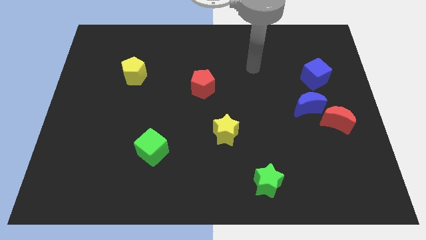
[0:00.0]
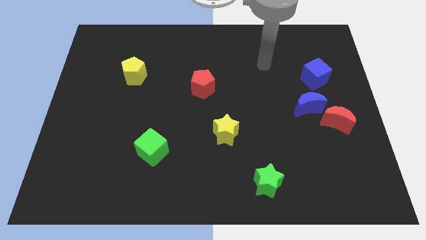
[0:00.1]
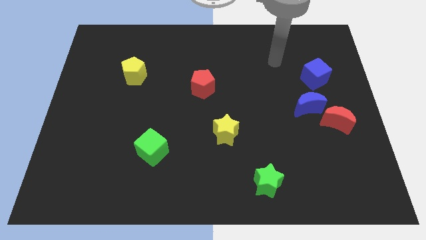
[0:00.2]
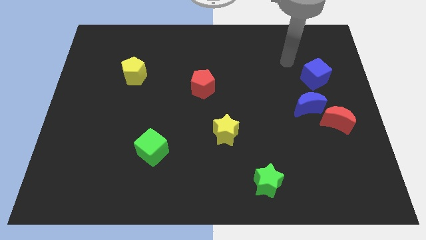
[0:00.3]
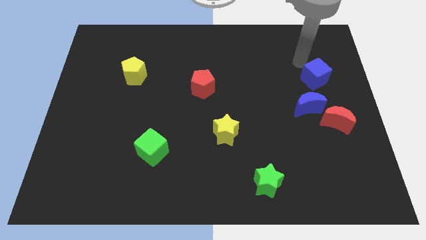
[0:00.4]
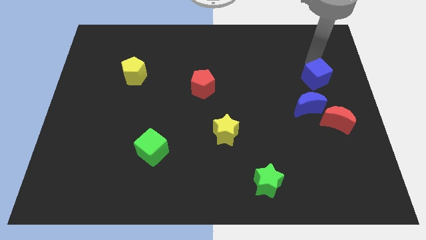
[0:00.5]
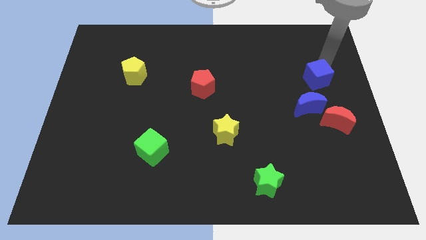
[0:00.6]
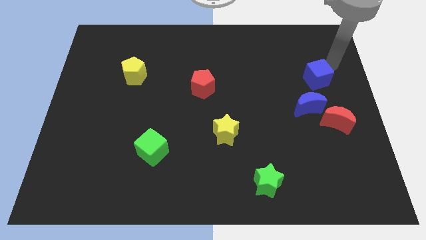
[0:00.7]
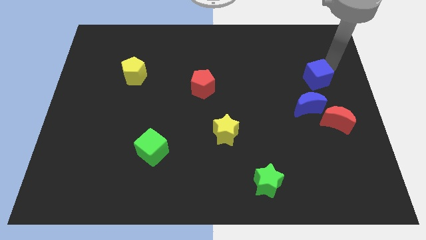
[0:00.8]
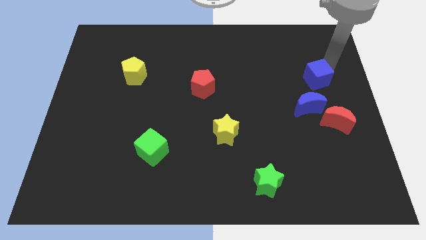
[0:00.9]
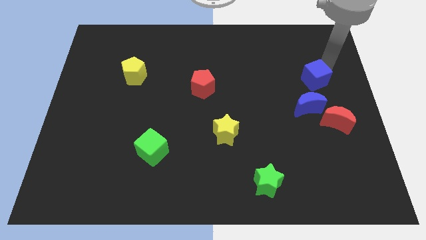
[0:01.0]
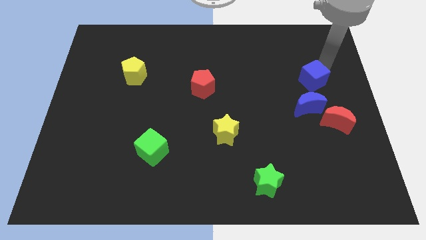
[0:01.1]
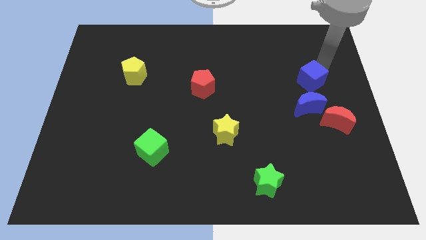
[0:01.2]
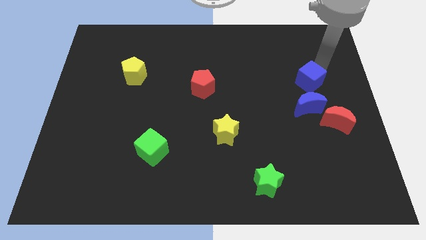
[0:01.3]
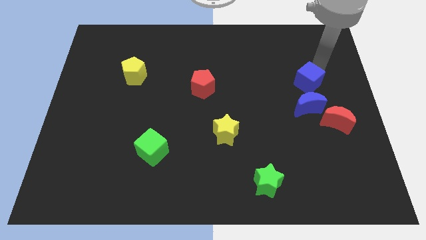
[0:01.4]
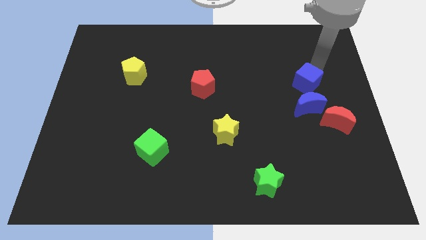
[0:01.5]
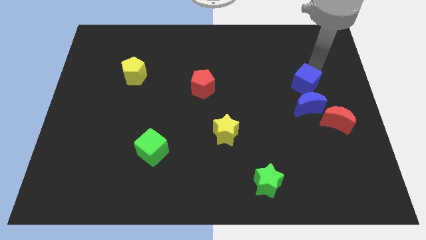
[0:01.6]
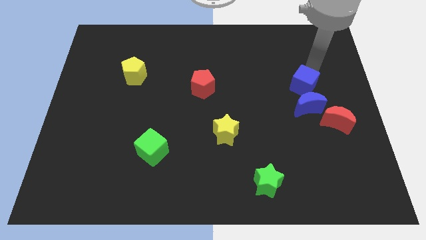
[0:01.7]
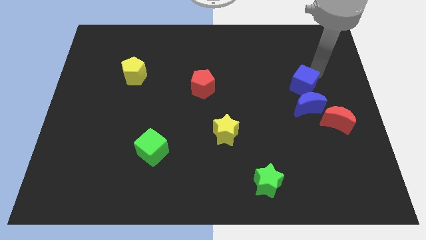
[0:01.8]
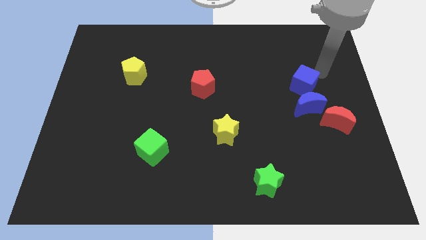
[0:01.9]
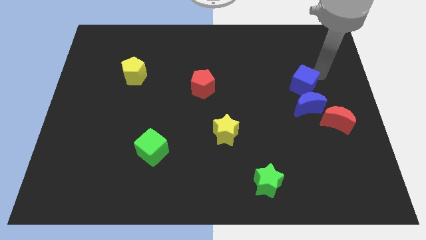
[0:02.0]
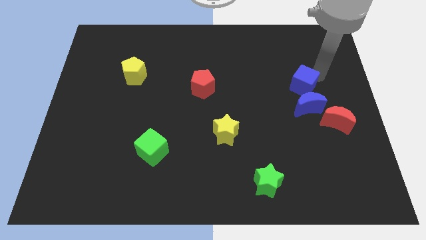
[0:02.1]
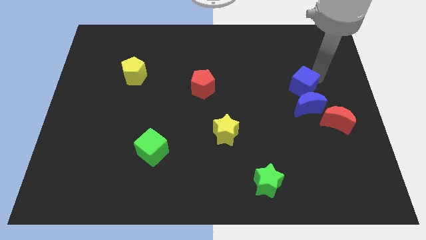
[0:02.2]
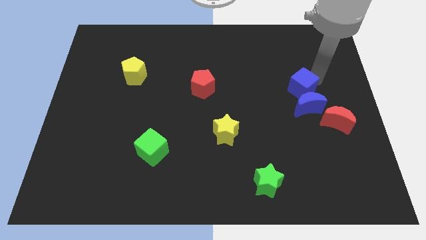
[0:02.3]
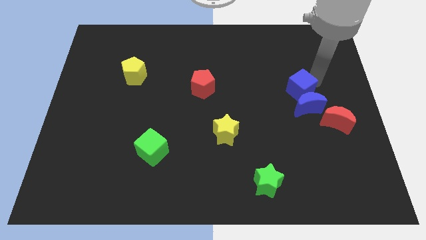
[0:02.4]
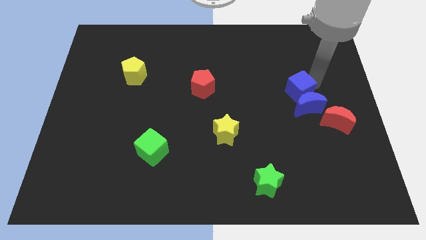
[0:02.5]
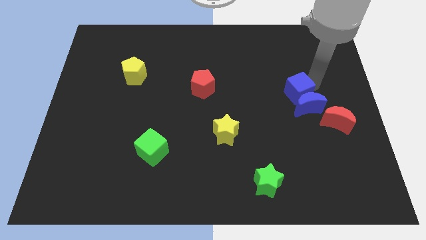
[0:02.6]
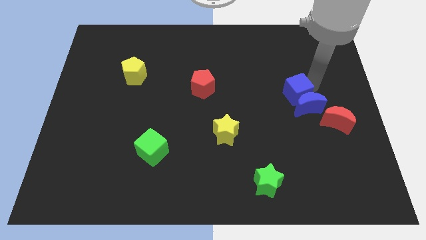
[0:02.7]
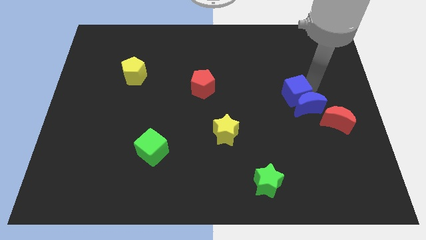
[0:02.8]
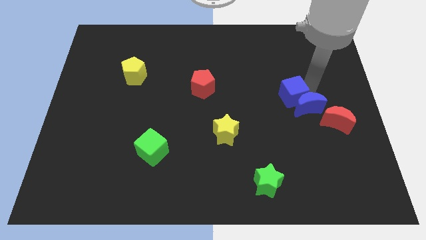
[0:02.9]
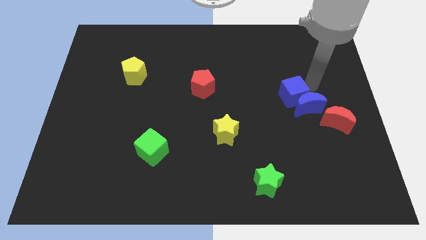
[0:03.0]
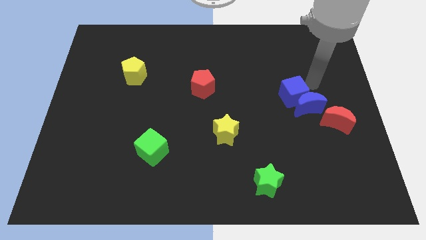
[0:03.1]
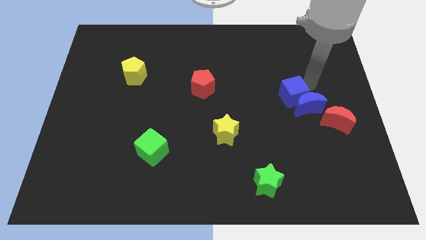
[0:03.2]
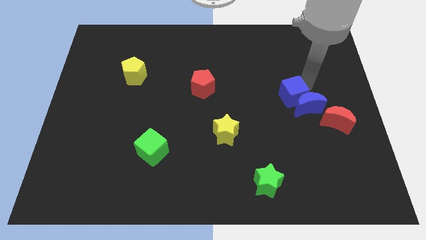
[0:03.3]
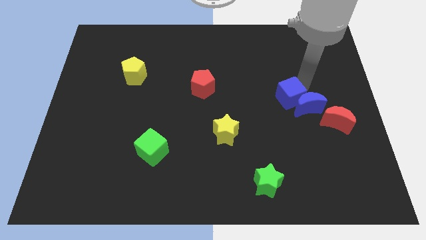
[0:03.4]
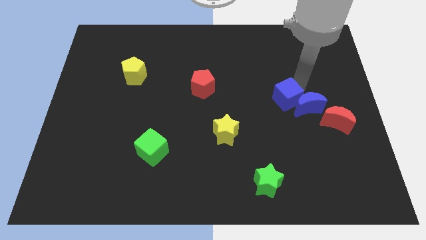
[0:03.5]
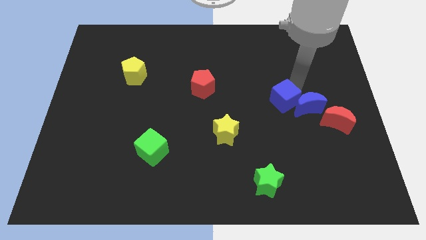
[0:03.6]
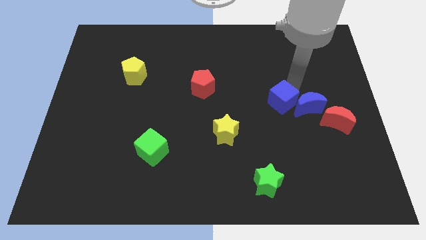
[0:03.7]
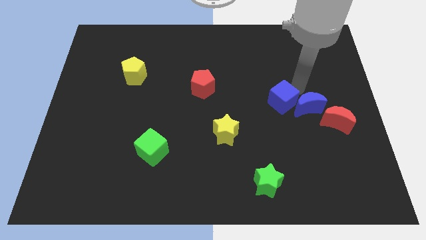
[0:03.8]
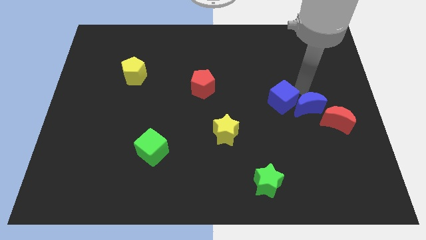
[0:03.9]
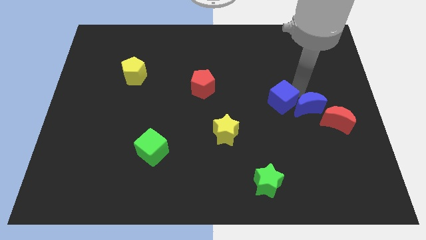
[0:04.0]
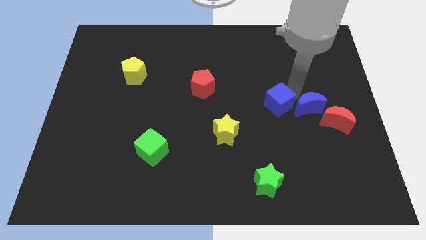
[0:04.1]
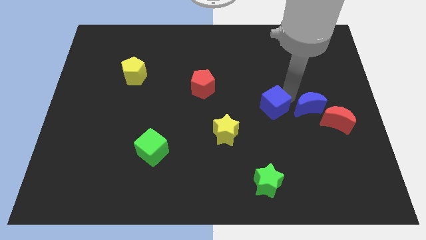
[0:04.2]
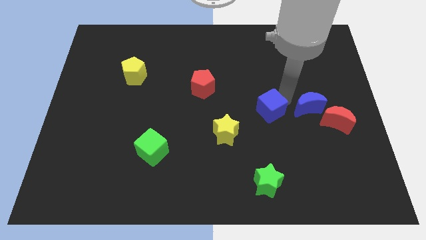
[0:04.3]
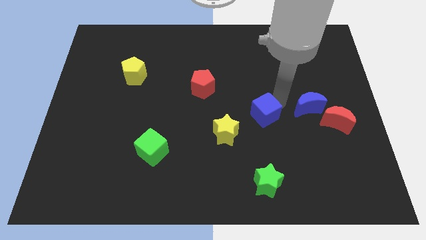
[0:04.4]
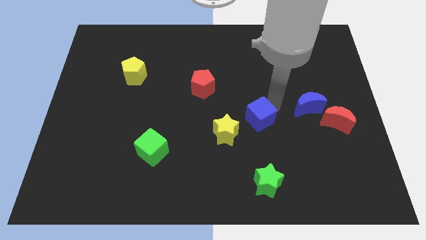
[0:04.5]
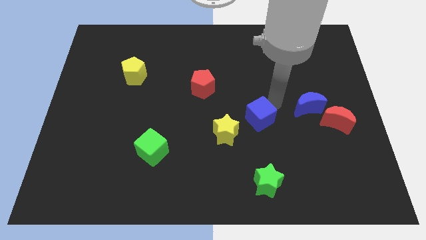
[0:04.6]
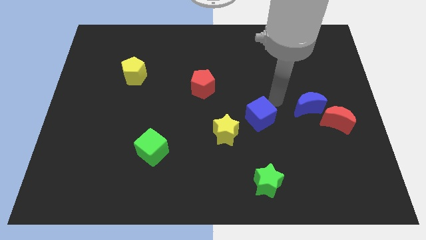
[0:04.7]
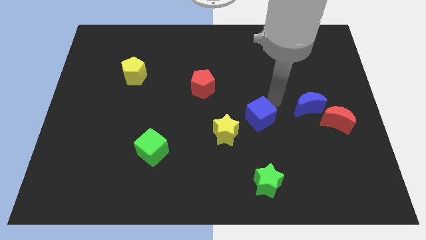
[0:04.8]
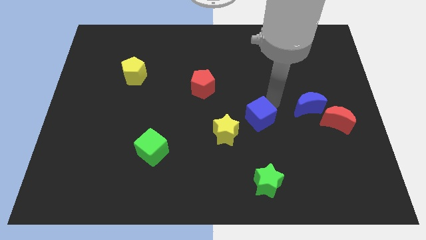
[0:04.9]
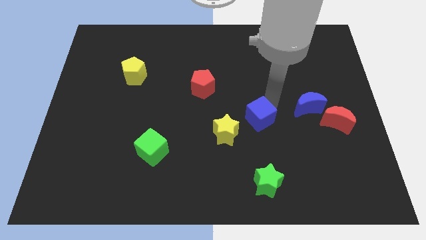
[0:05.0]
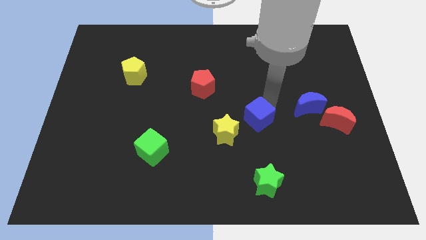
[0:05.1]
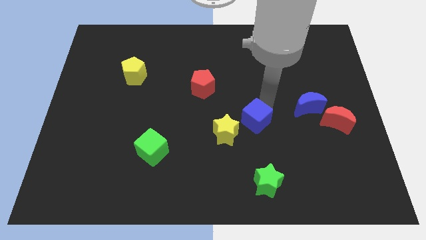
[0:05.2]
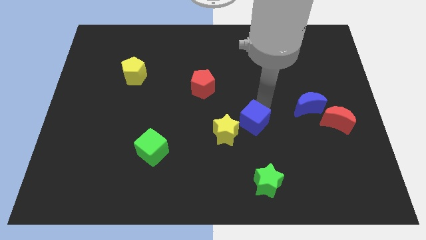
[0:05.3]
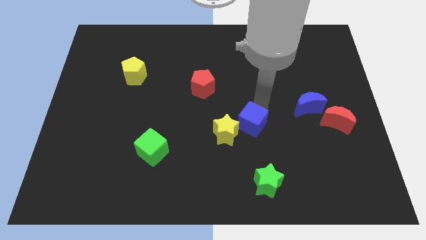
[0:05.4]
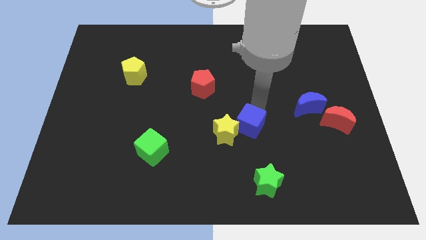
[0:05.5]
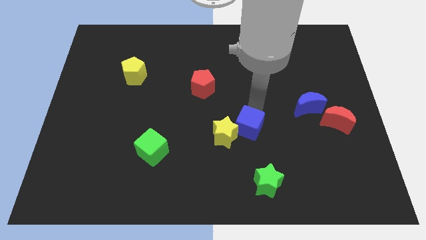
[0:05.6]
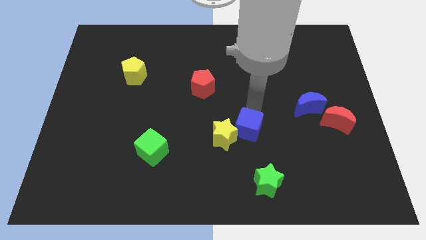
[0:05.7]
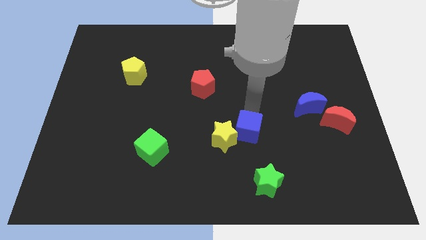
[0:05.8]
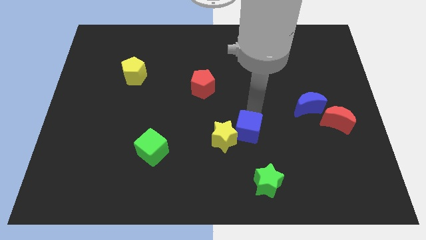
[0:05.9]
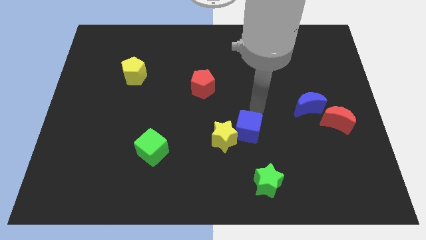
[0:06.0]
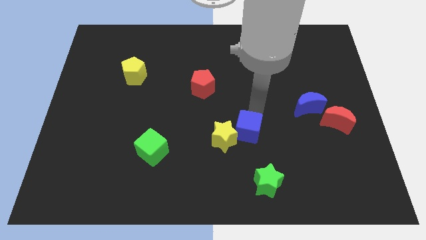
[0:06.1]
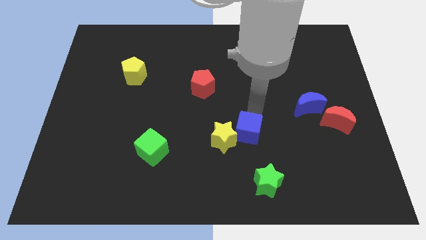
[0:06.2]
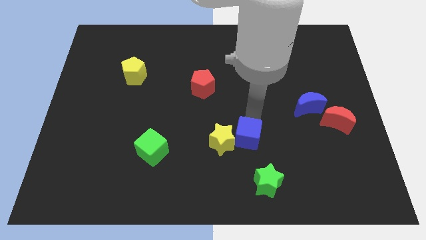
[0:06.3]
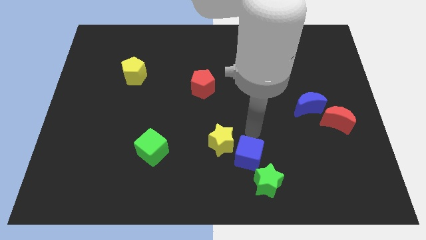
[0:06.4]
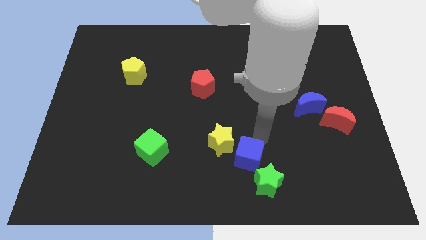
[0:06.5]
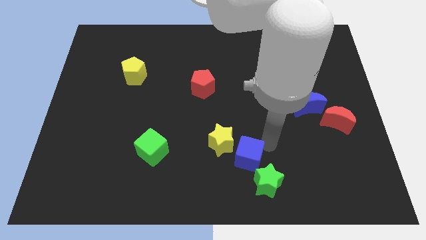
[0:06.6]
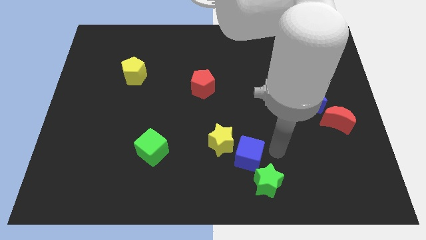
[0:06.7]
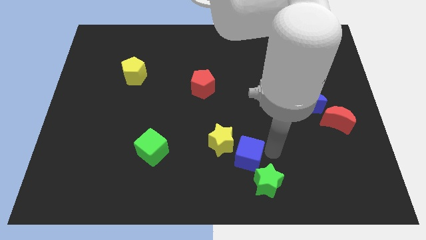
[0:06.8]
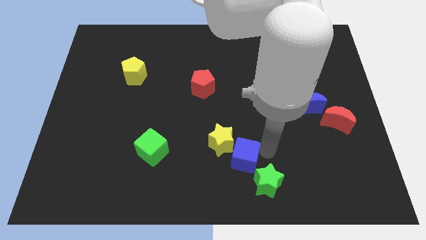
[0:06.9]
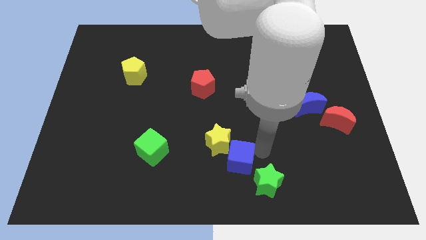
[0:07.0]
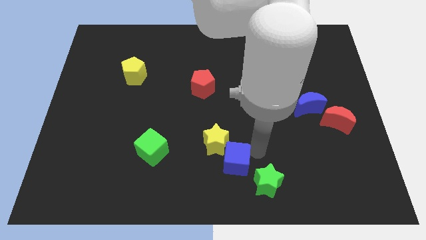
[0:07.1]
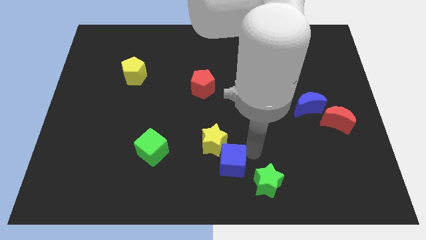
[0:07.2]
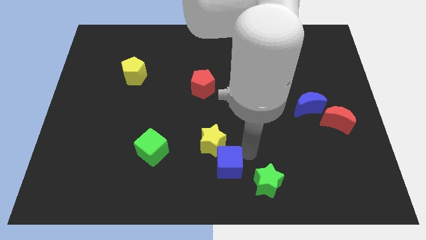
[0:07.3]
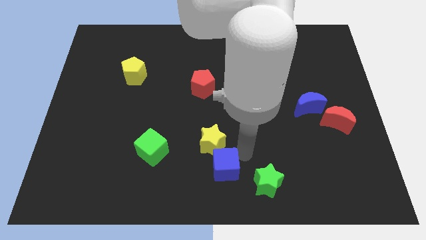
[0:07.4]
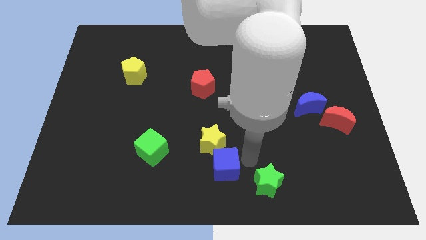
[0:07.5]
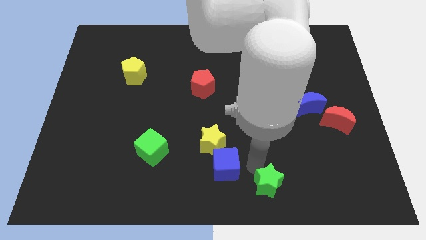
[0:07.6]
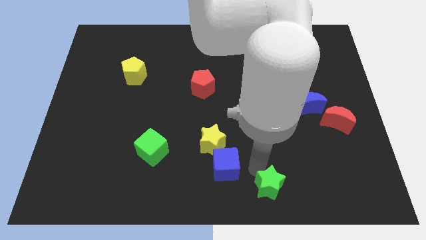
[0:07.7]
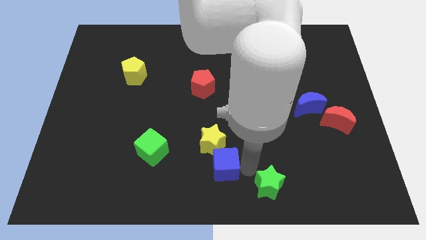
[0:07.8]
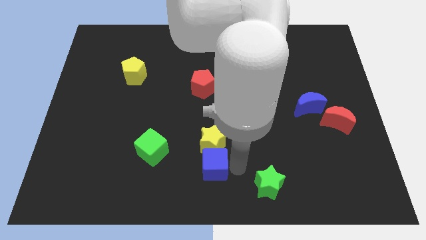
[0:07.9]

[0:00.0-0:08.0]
push the blue cube to the bottom left side of the yellow star
